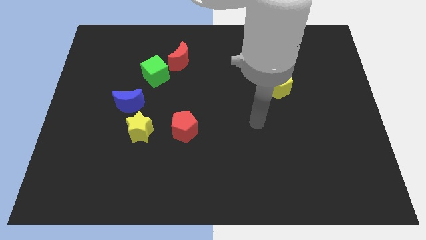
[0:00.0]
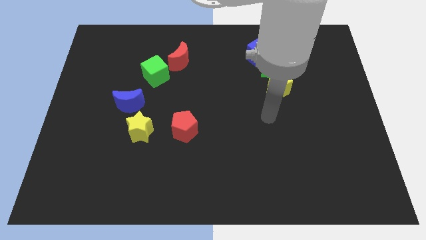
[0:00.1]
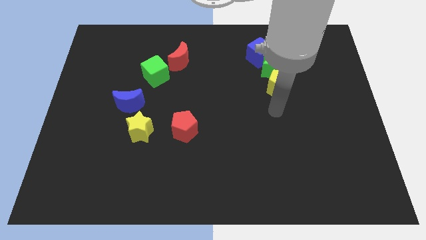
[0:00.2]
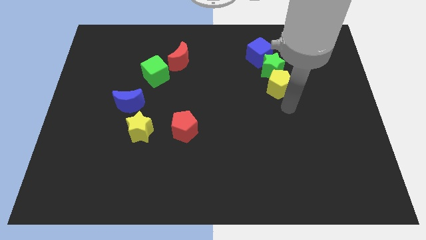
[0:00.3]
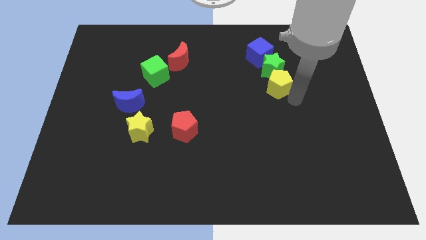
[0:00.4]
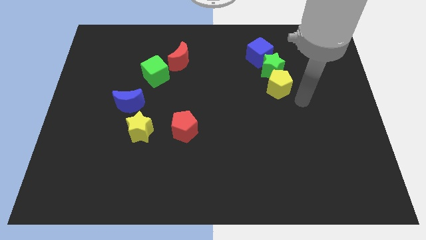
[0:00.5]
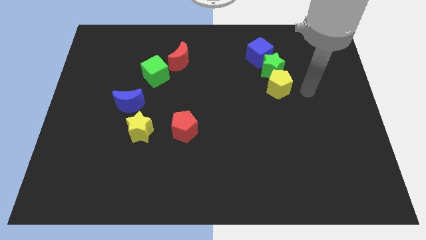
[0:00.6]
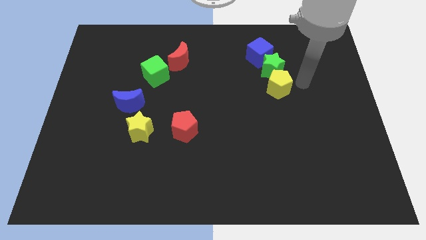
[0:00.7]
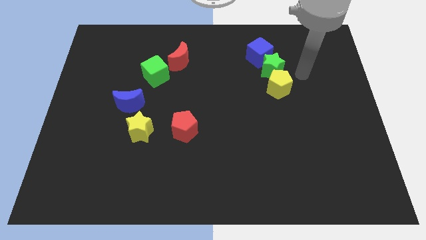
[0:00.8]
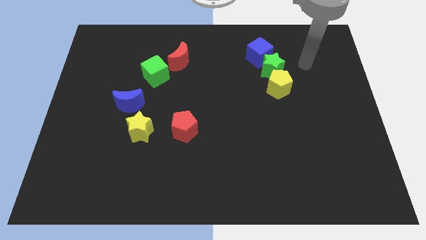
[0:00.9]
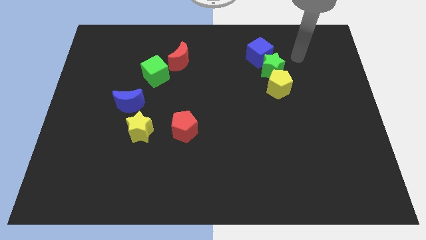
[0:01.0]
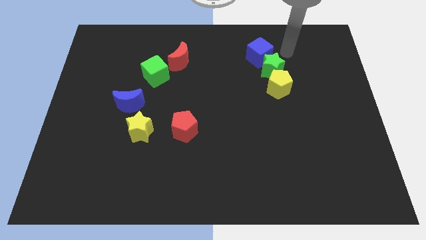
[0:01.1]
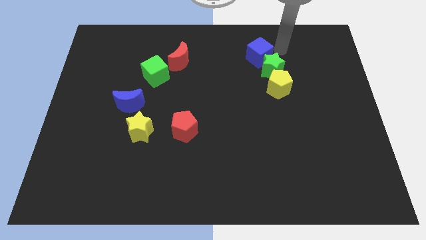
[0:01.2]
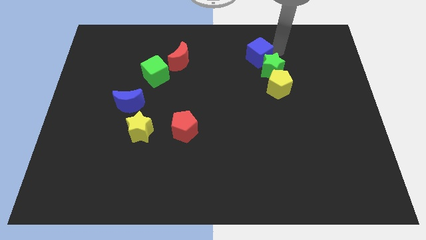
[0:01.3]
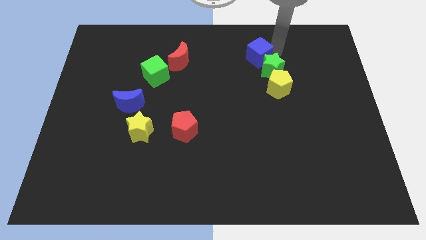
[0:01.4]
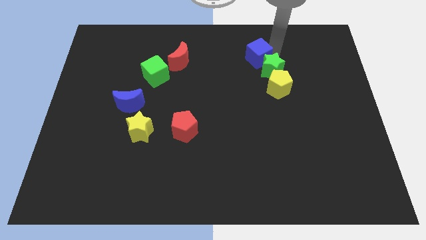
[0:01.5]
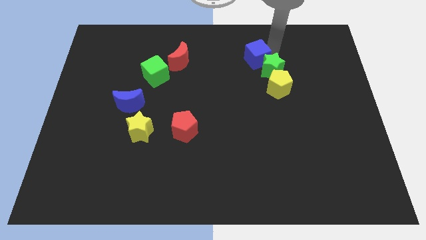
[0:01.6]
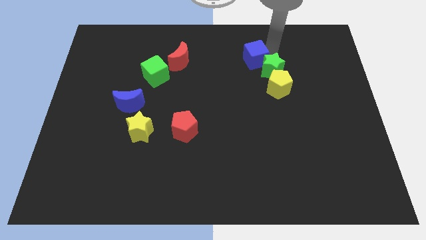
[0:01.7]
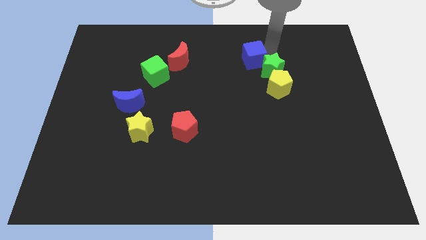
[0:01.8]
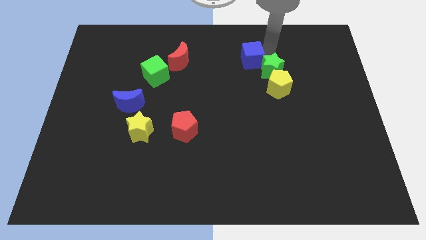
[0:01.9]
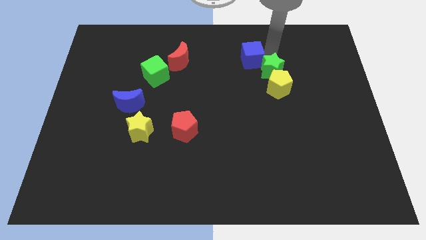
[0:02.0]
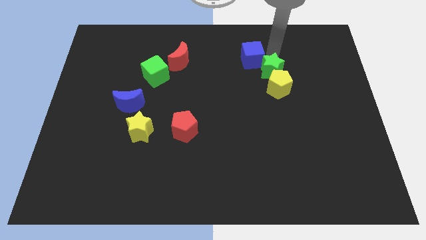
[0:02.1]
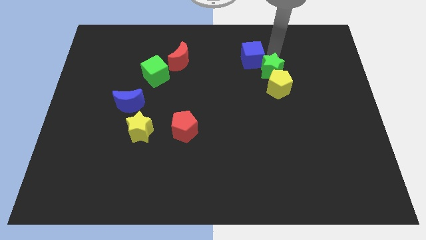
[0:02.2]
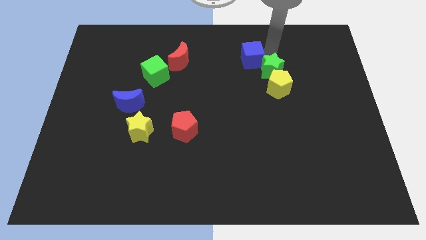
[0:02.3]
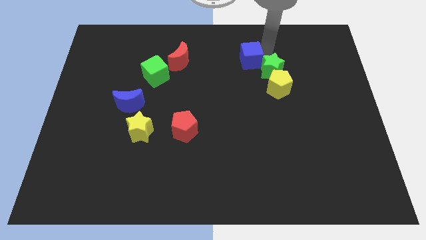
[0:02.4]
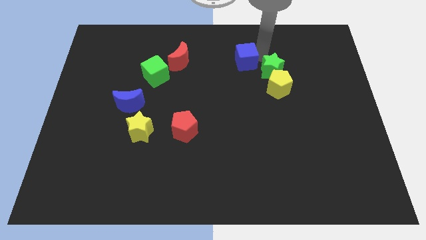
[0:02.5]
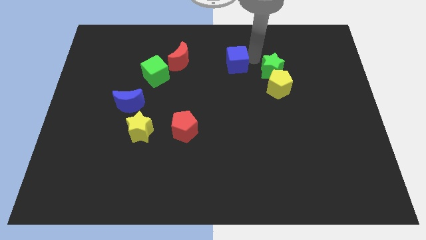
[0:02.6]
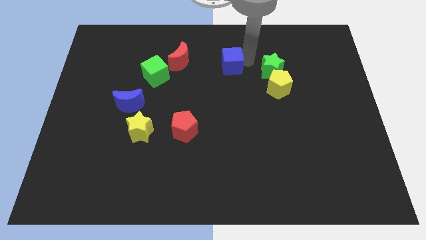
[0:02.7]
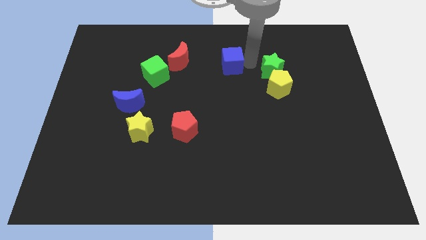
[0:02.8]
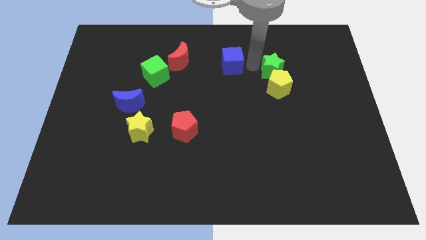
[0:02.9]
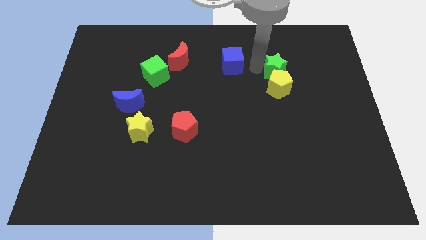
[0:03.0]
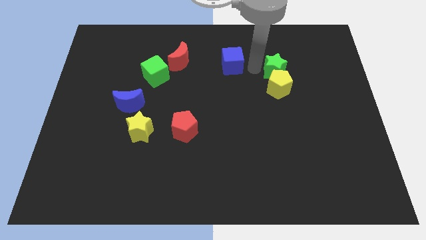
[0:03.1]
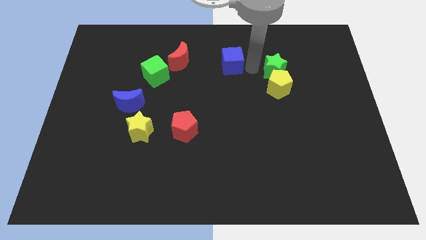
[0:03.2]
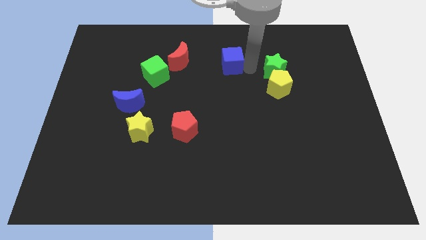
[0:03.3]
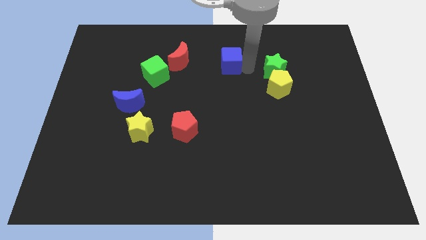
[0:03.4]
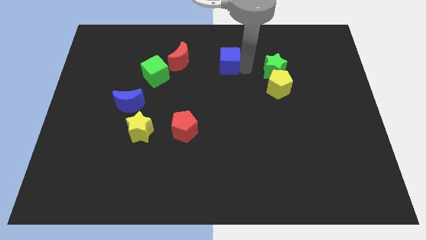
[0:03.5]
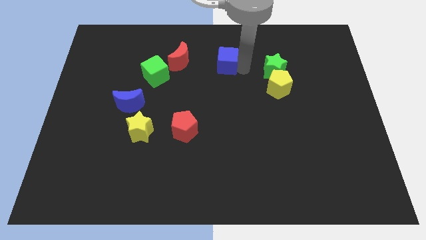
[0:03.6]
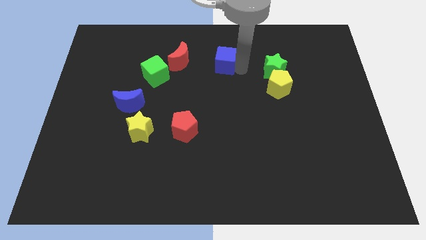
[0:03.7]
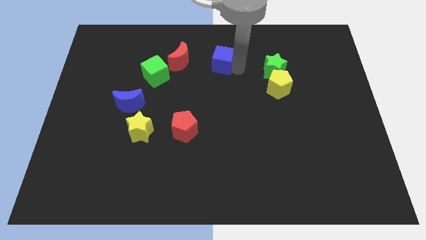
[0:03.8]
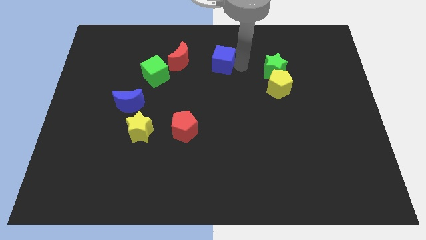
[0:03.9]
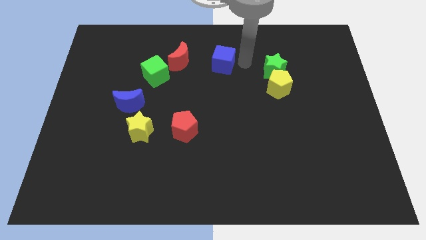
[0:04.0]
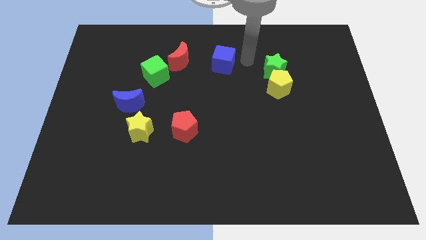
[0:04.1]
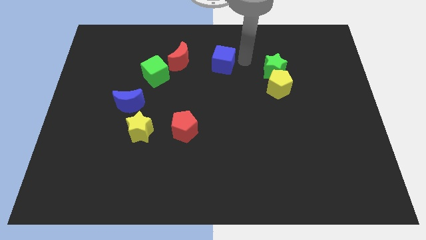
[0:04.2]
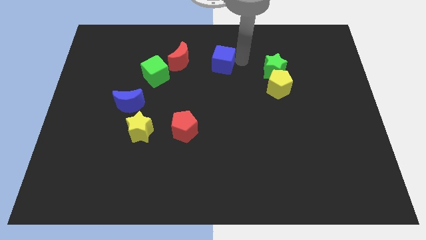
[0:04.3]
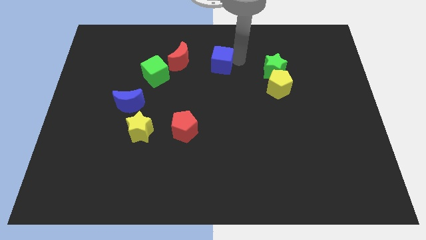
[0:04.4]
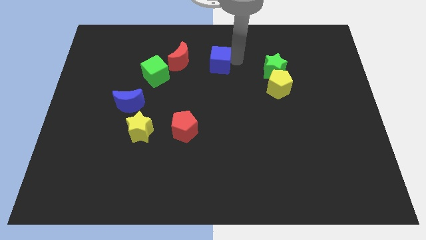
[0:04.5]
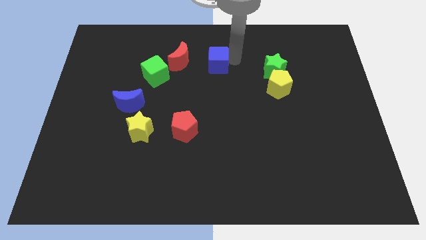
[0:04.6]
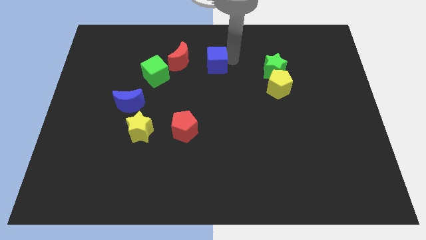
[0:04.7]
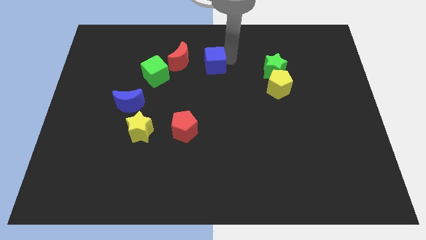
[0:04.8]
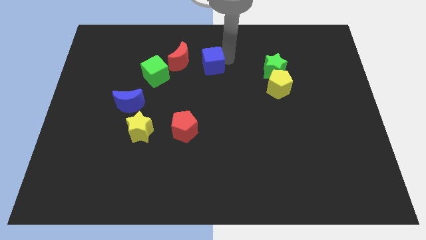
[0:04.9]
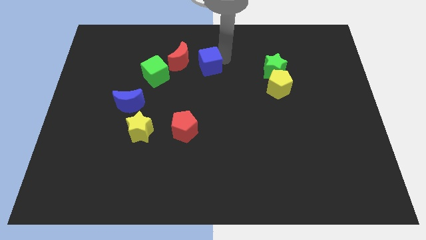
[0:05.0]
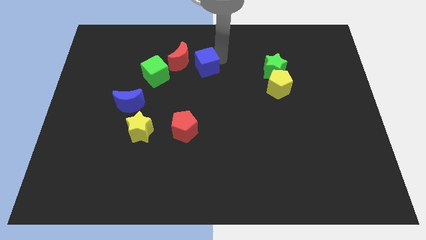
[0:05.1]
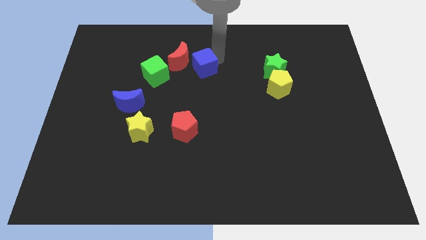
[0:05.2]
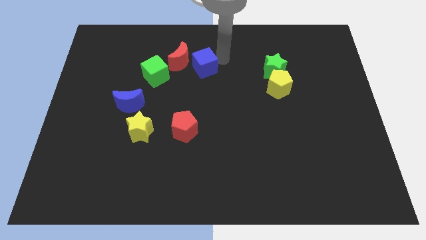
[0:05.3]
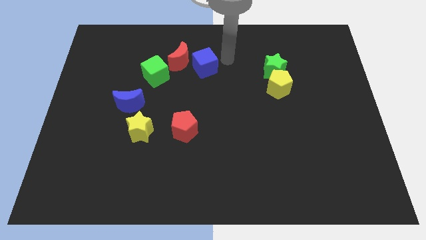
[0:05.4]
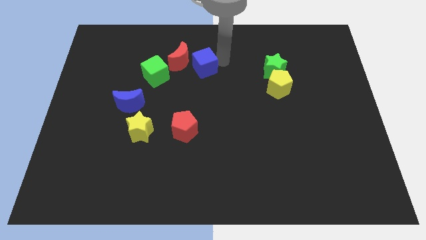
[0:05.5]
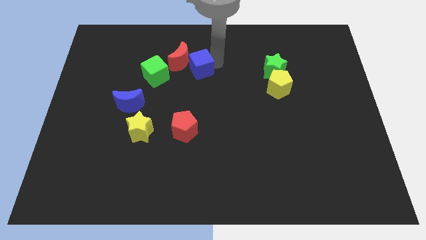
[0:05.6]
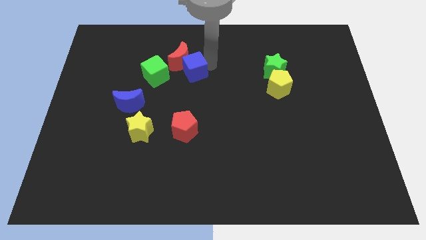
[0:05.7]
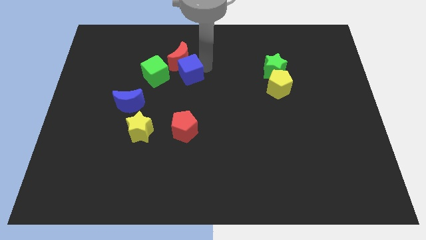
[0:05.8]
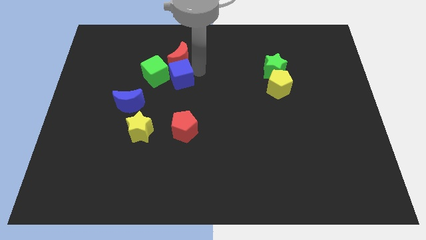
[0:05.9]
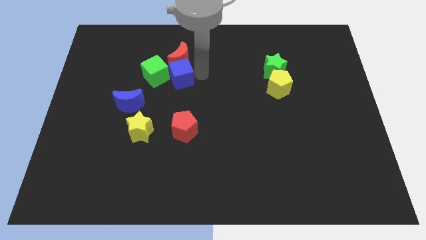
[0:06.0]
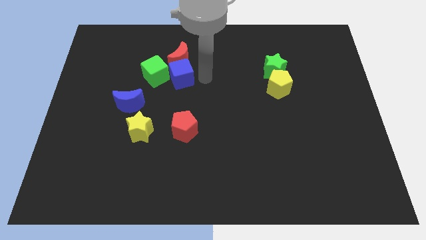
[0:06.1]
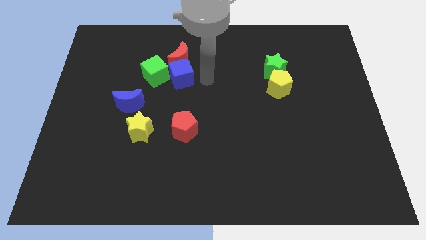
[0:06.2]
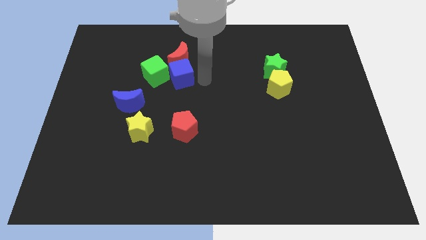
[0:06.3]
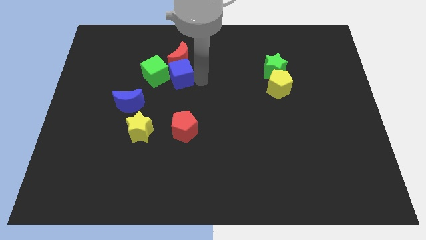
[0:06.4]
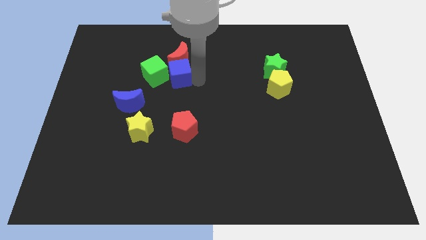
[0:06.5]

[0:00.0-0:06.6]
move the blue cube towards the green cube

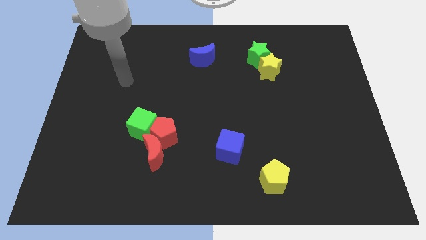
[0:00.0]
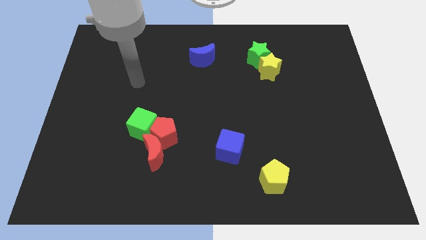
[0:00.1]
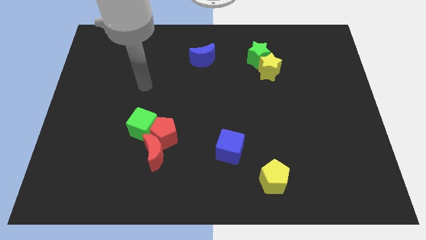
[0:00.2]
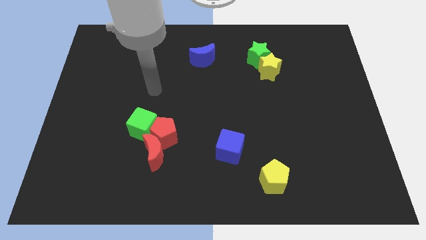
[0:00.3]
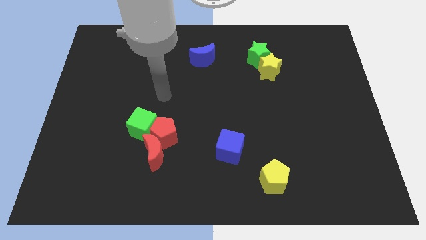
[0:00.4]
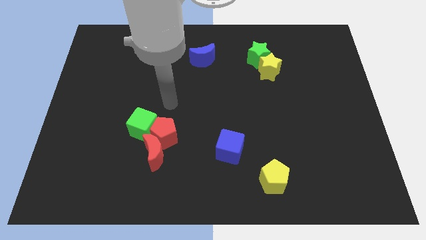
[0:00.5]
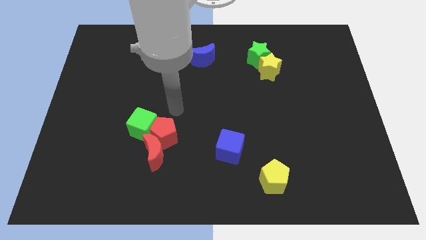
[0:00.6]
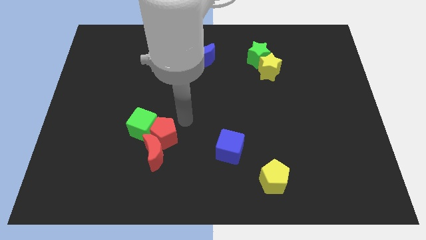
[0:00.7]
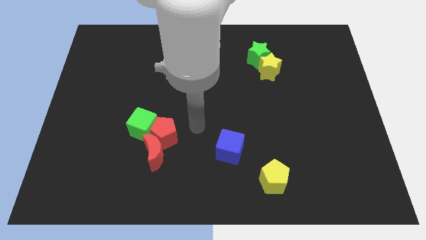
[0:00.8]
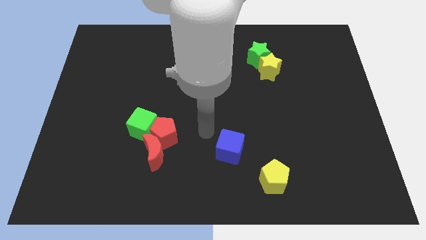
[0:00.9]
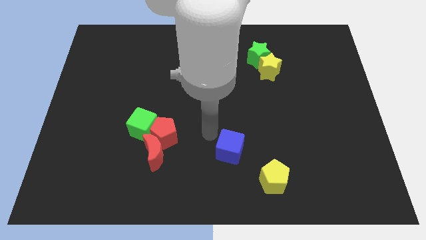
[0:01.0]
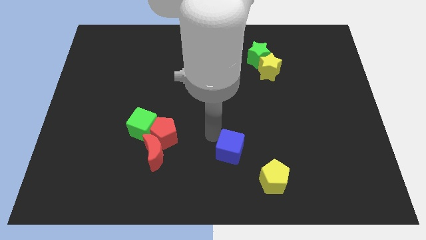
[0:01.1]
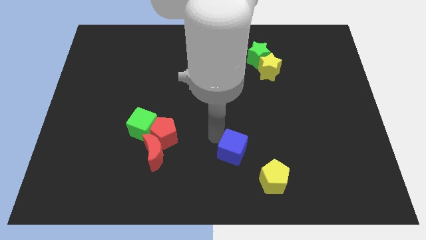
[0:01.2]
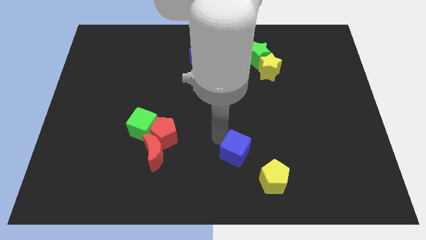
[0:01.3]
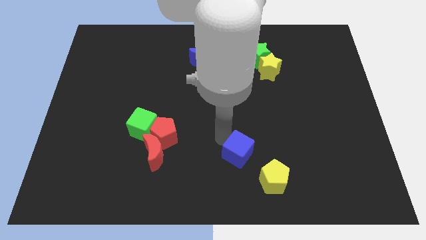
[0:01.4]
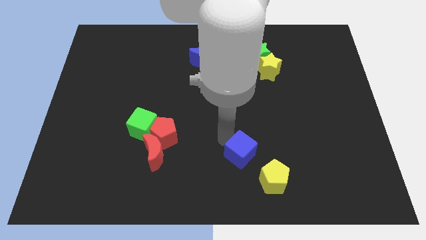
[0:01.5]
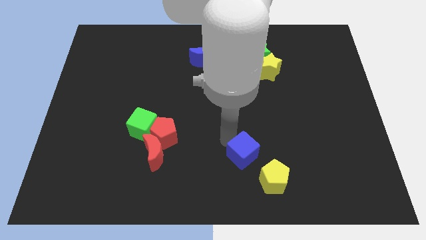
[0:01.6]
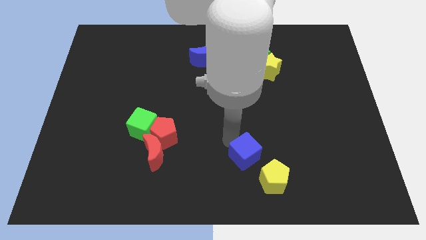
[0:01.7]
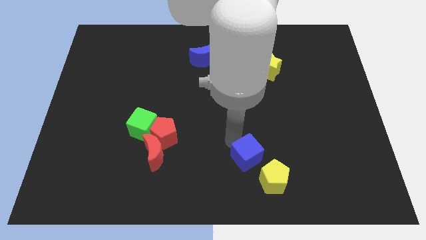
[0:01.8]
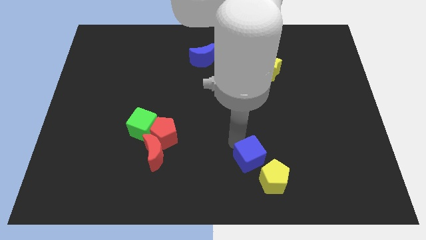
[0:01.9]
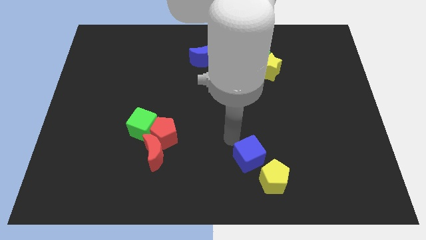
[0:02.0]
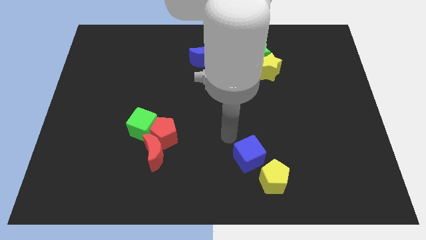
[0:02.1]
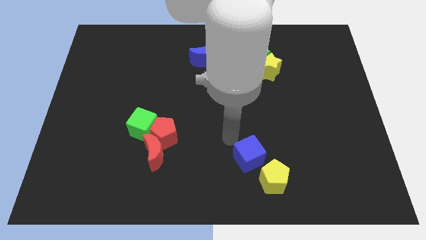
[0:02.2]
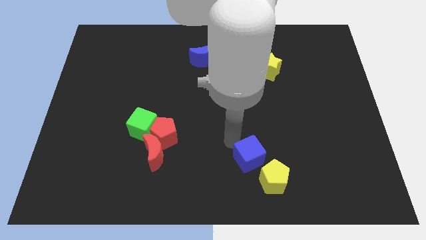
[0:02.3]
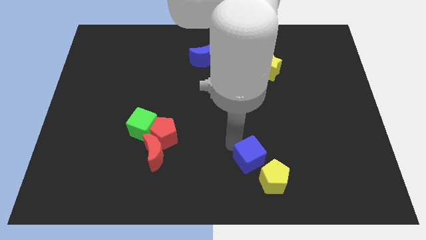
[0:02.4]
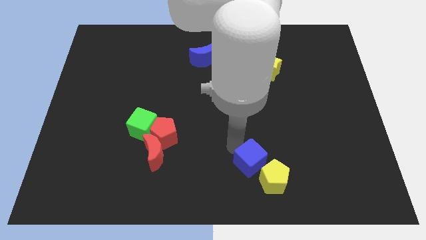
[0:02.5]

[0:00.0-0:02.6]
put the blue cube towards the yellow pentagon
